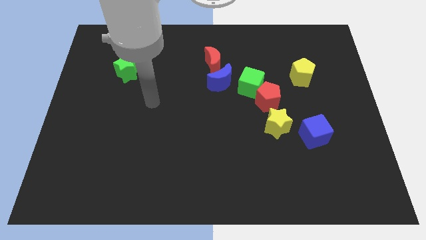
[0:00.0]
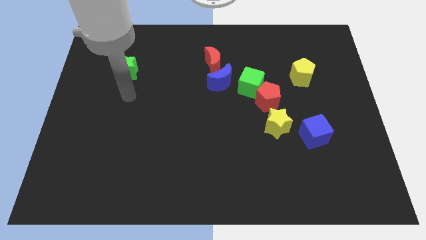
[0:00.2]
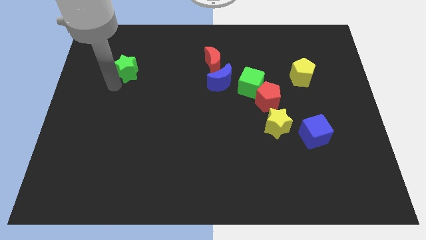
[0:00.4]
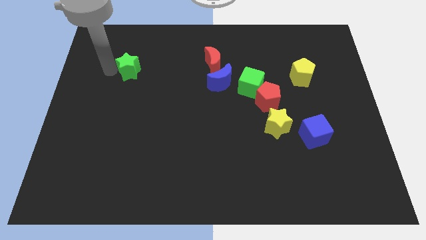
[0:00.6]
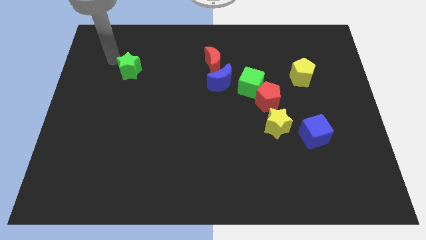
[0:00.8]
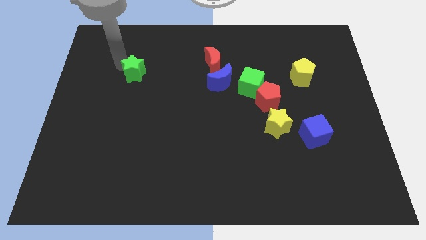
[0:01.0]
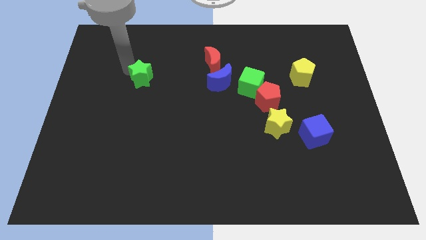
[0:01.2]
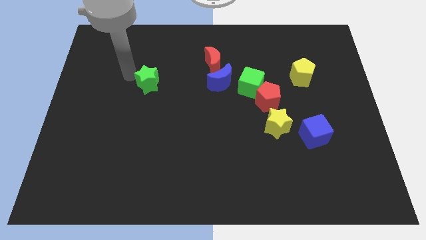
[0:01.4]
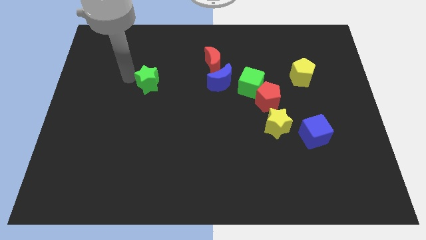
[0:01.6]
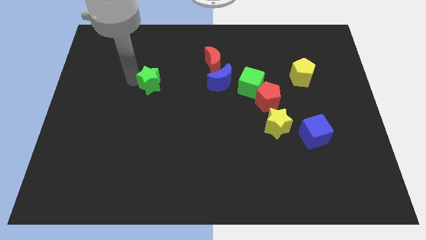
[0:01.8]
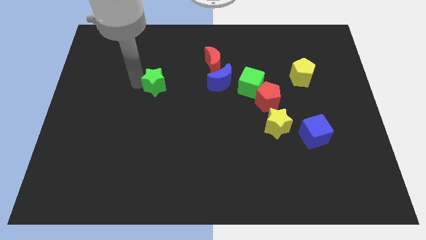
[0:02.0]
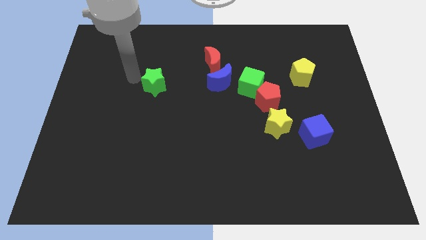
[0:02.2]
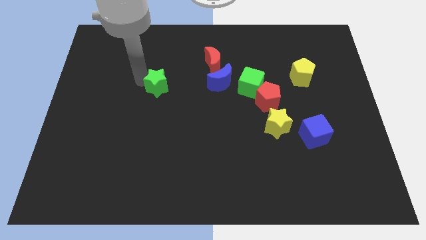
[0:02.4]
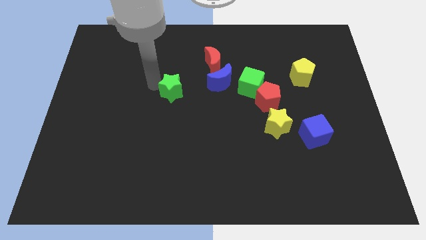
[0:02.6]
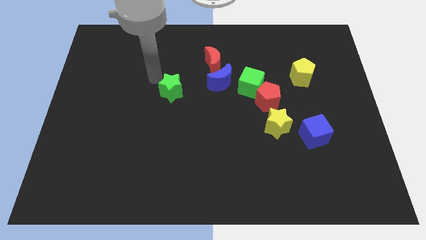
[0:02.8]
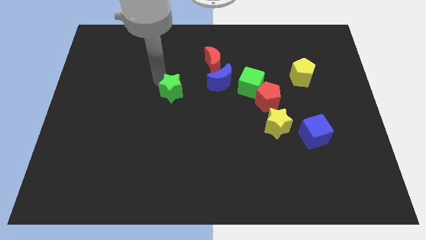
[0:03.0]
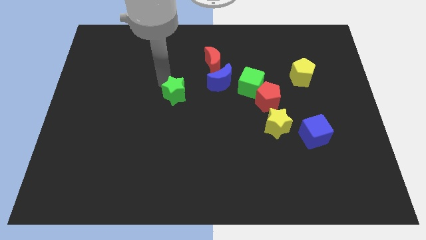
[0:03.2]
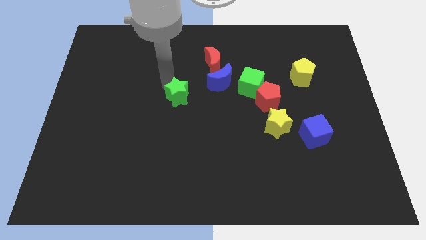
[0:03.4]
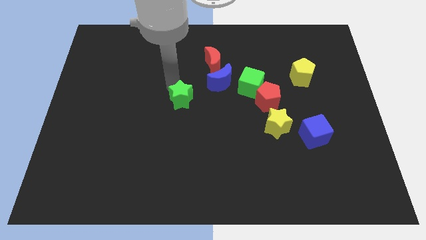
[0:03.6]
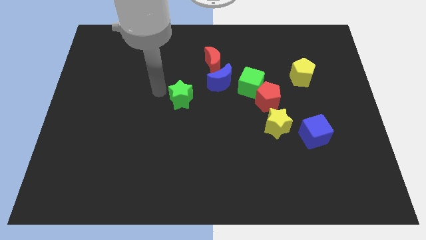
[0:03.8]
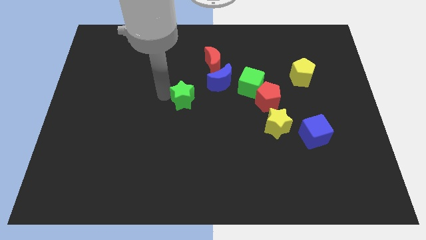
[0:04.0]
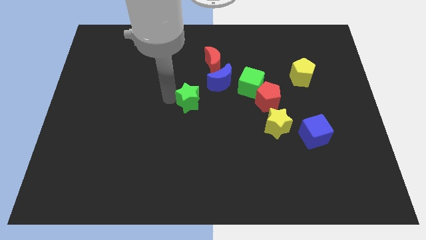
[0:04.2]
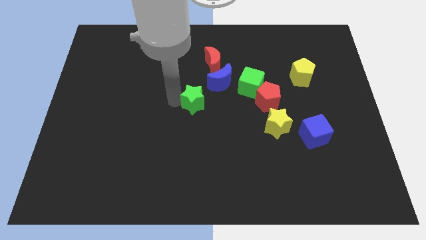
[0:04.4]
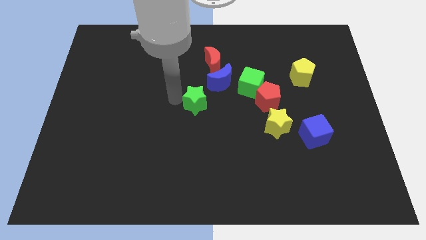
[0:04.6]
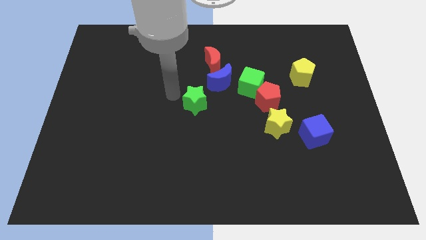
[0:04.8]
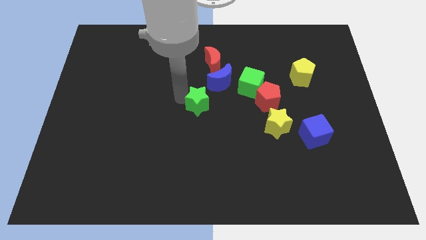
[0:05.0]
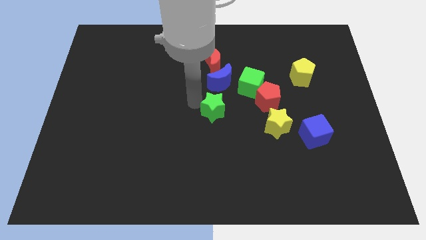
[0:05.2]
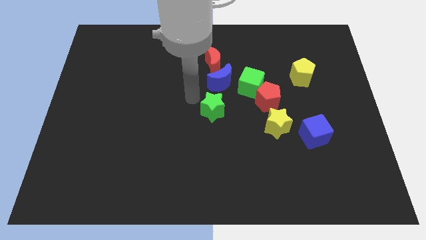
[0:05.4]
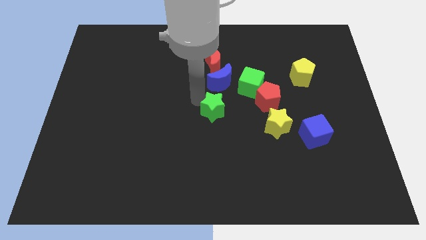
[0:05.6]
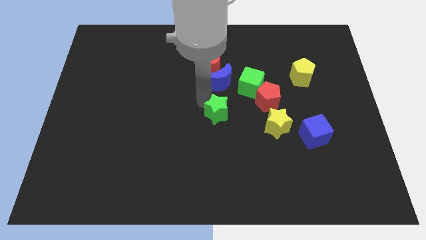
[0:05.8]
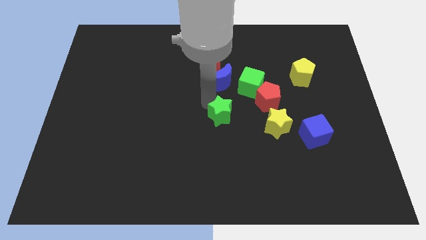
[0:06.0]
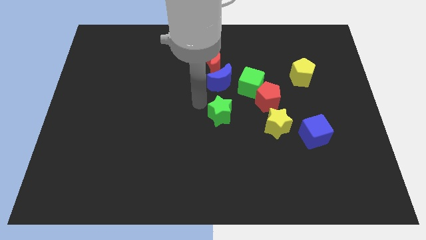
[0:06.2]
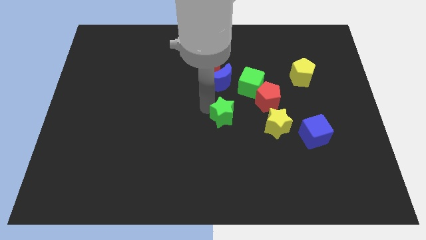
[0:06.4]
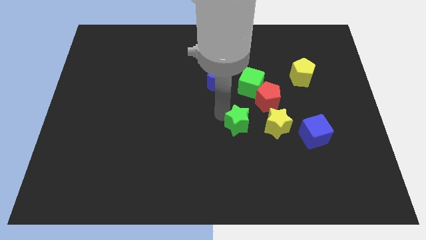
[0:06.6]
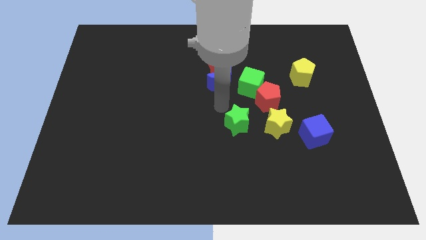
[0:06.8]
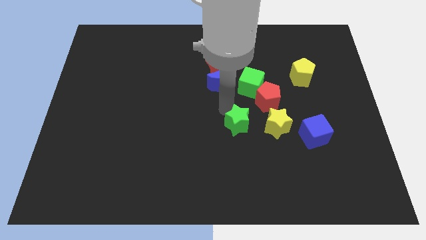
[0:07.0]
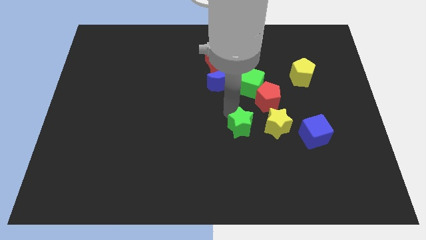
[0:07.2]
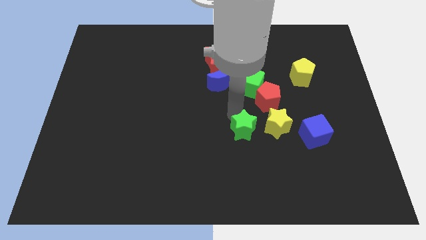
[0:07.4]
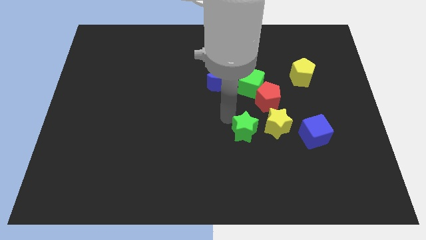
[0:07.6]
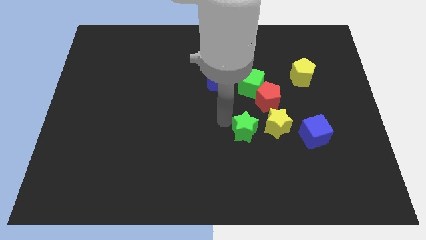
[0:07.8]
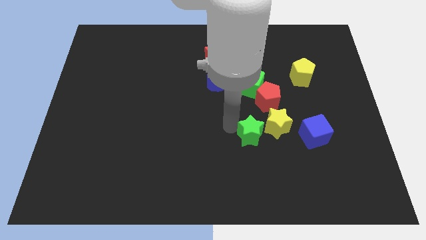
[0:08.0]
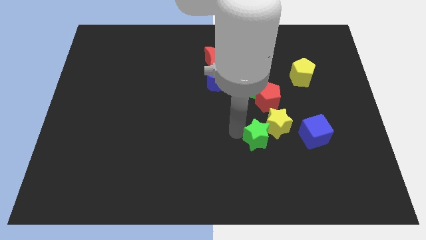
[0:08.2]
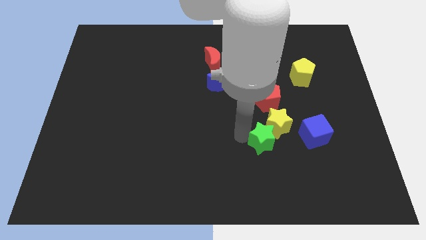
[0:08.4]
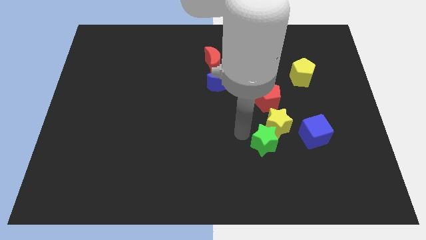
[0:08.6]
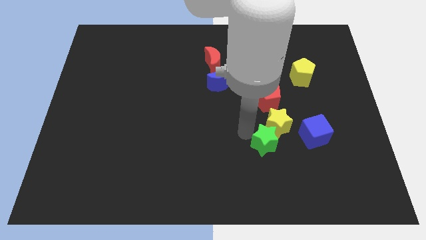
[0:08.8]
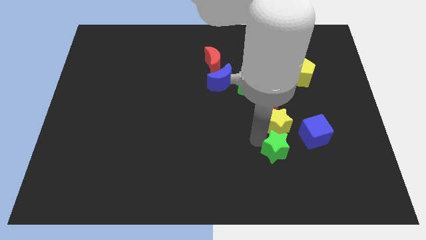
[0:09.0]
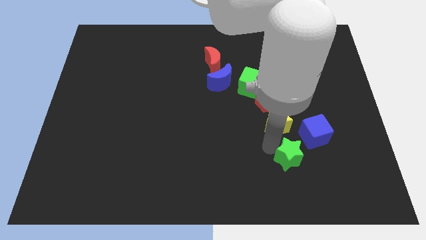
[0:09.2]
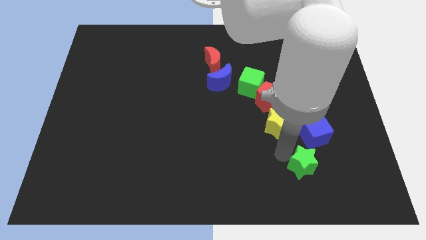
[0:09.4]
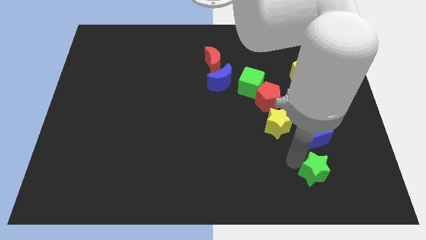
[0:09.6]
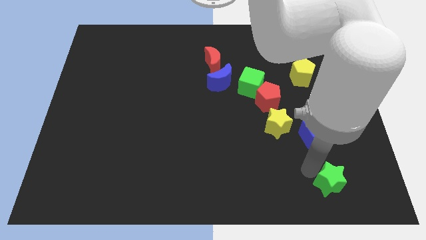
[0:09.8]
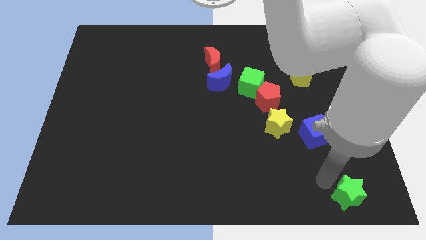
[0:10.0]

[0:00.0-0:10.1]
put the green star to the bottom right

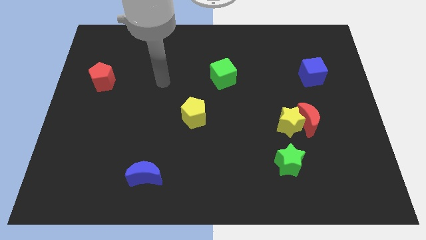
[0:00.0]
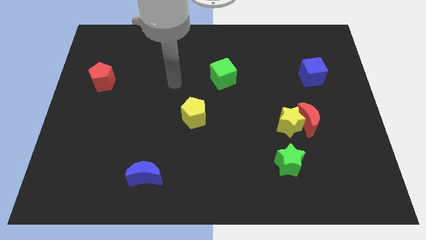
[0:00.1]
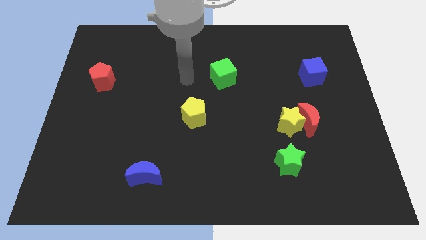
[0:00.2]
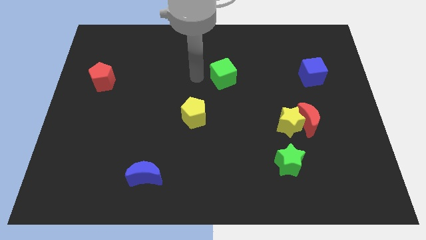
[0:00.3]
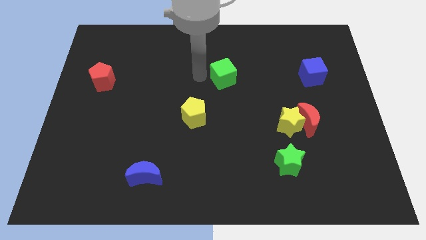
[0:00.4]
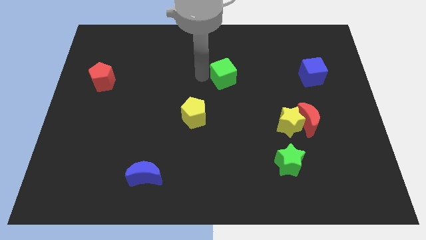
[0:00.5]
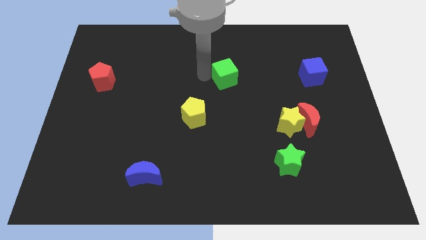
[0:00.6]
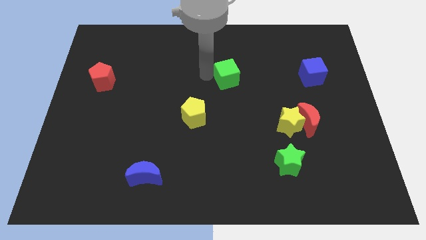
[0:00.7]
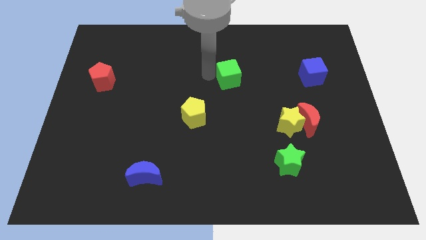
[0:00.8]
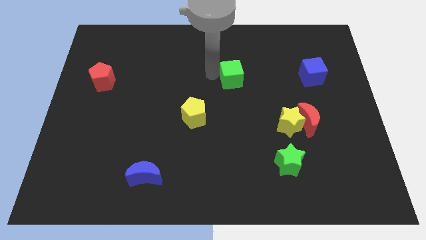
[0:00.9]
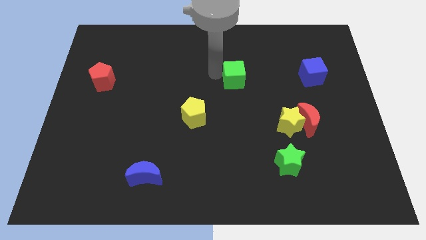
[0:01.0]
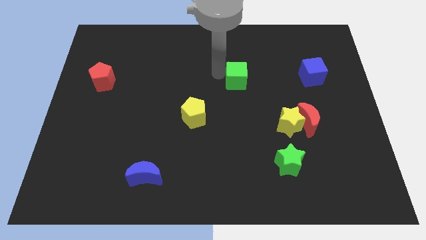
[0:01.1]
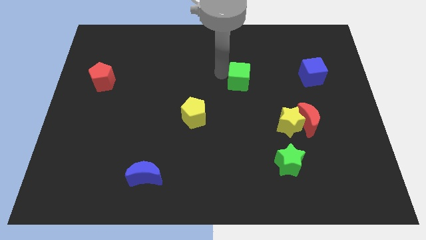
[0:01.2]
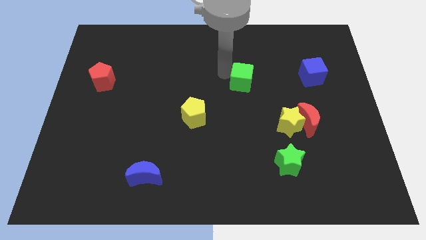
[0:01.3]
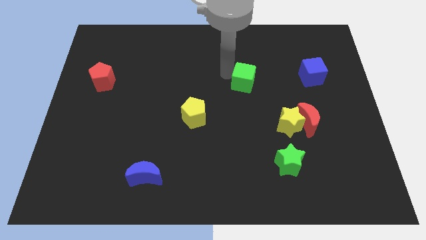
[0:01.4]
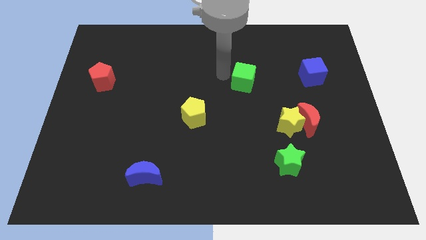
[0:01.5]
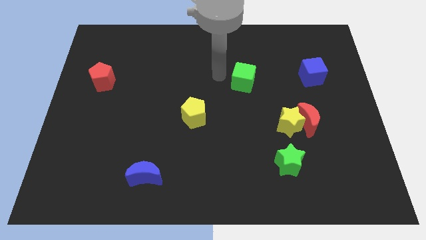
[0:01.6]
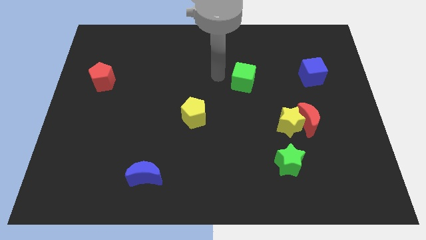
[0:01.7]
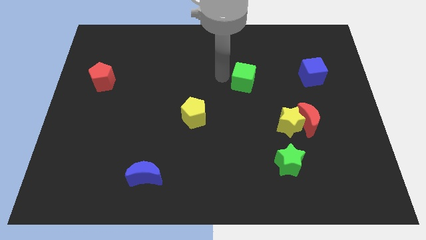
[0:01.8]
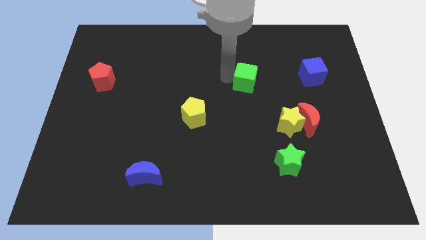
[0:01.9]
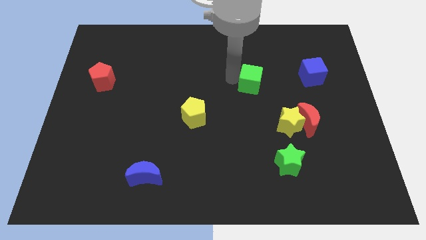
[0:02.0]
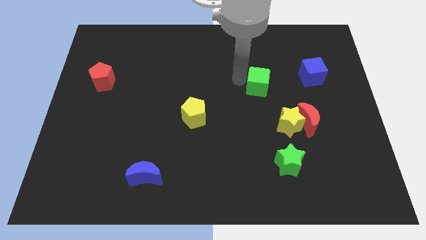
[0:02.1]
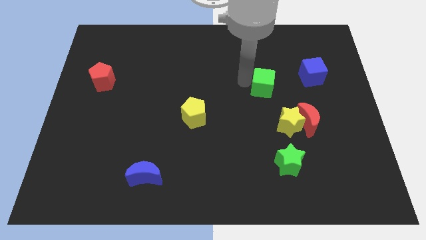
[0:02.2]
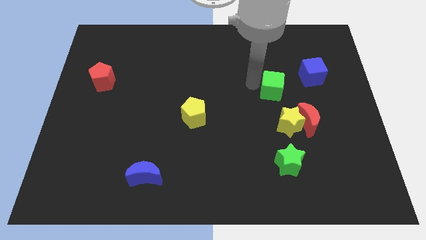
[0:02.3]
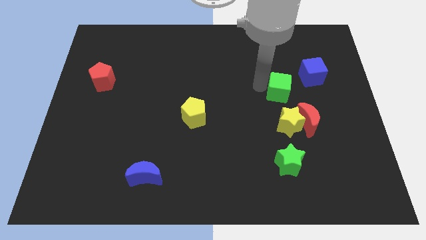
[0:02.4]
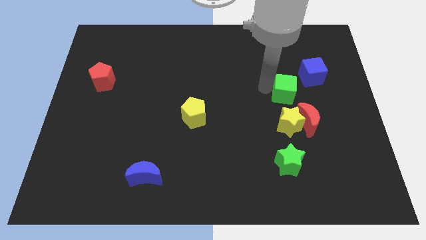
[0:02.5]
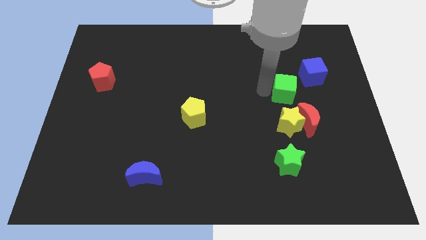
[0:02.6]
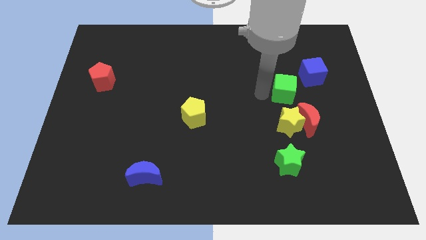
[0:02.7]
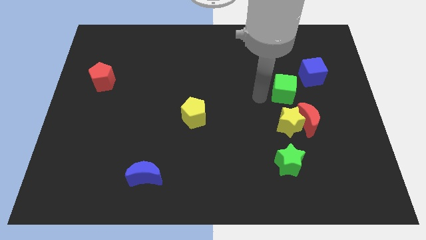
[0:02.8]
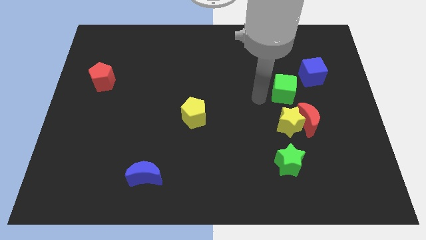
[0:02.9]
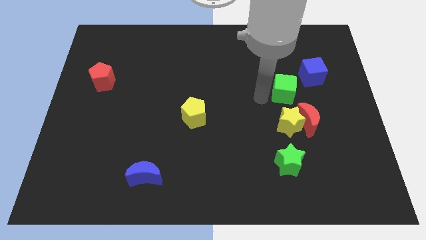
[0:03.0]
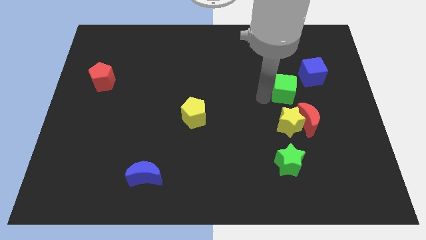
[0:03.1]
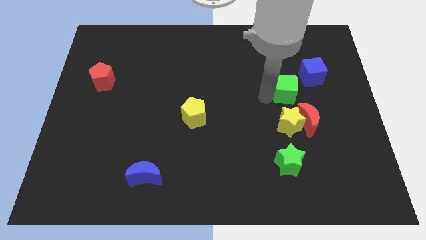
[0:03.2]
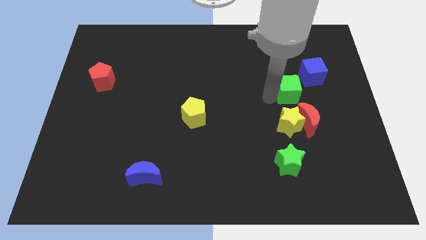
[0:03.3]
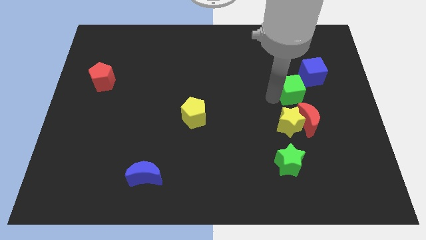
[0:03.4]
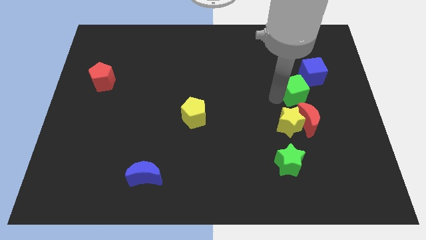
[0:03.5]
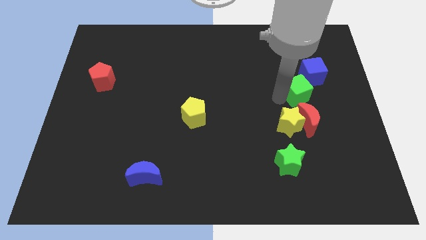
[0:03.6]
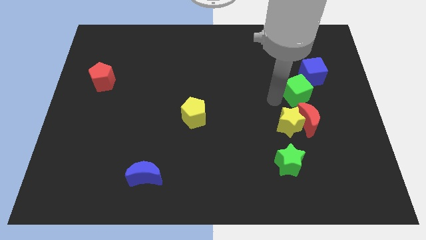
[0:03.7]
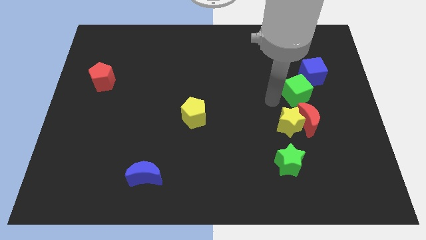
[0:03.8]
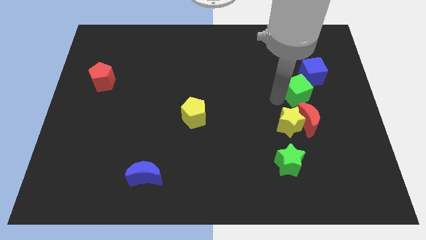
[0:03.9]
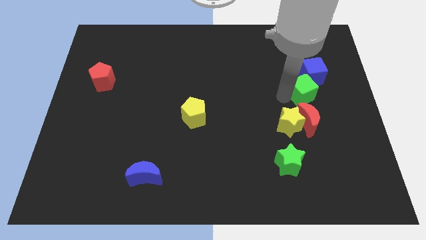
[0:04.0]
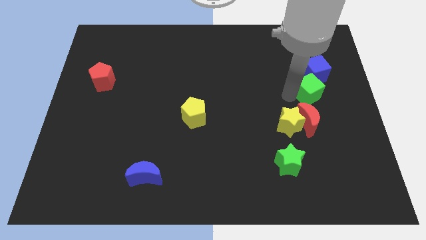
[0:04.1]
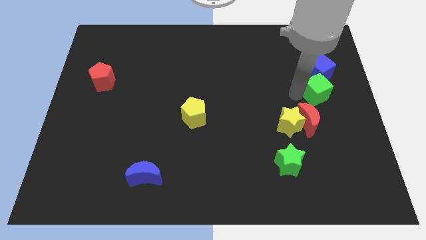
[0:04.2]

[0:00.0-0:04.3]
slide the green cube to the right side
